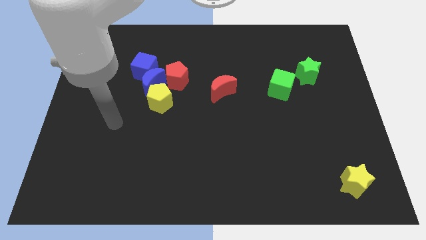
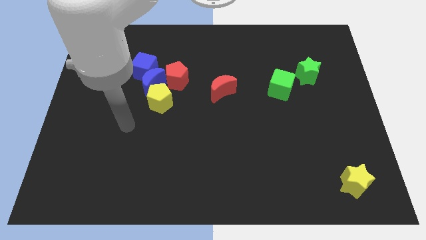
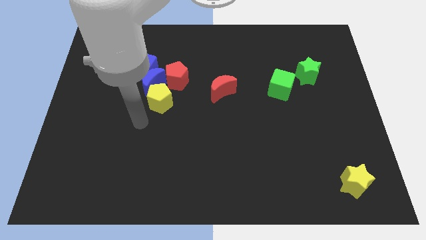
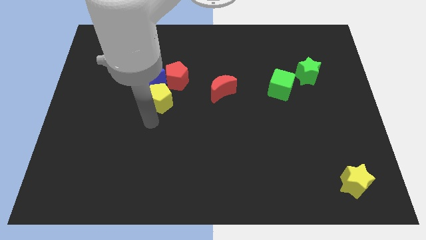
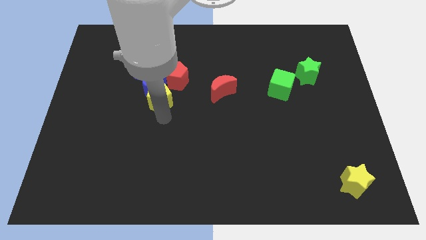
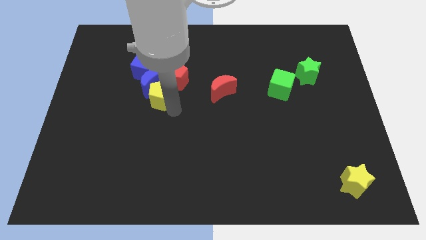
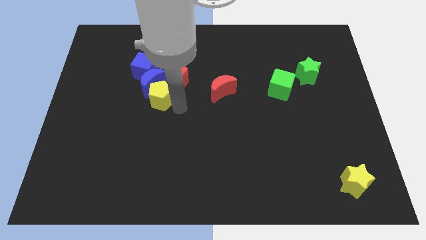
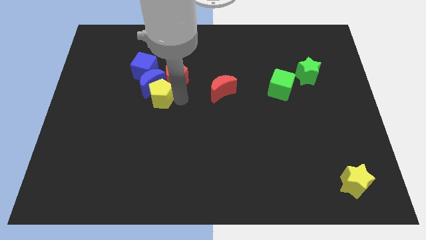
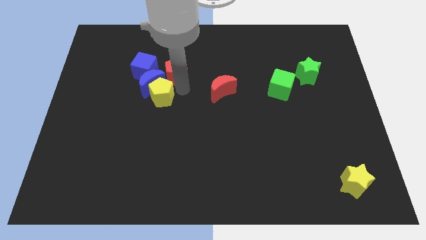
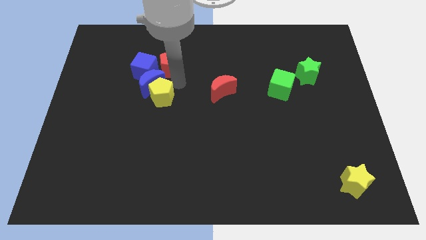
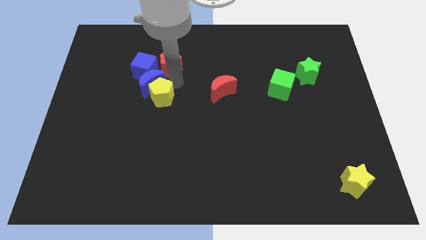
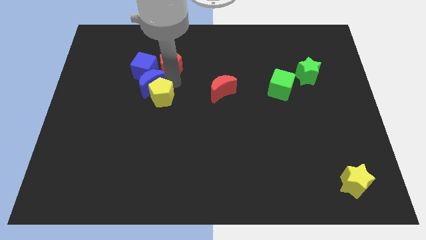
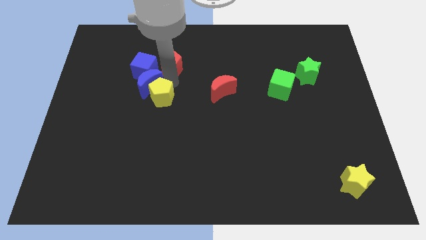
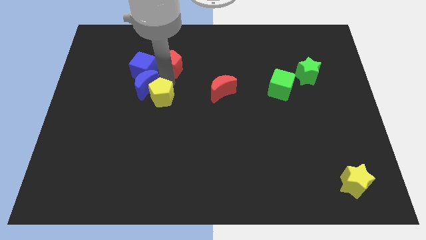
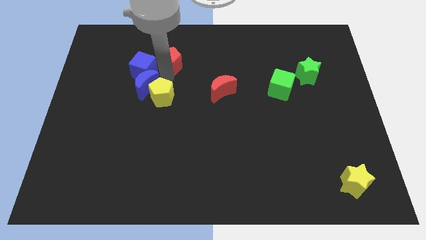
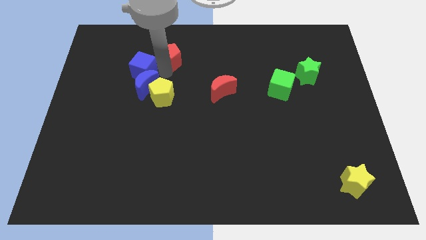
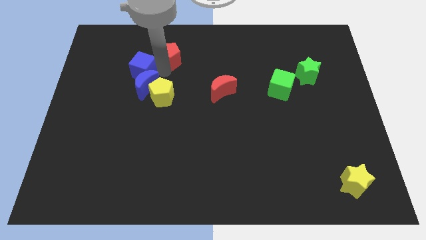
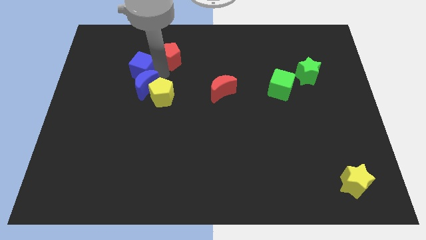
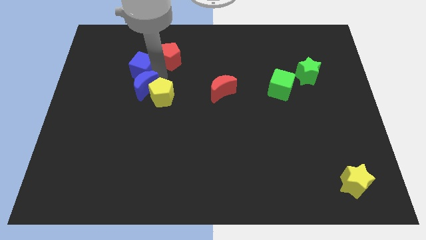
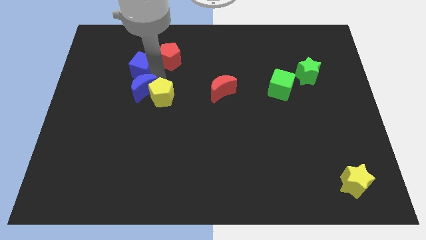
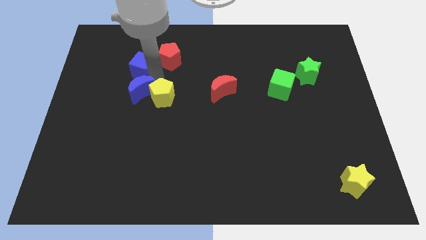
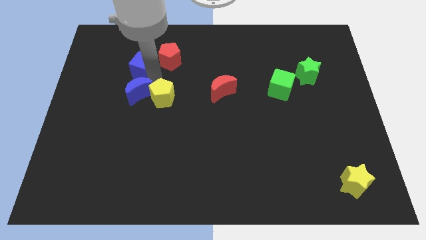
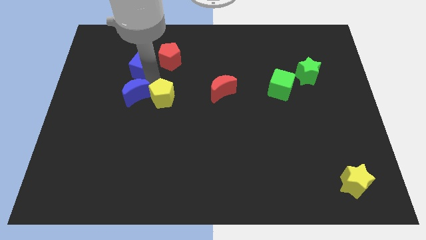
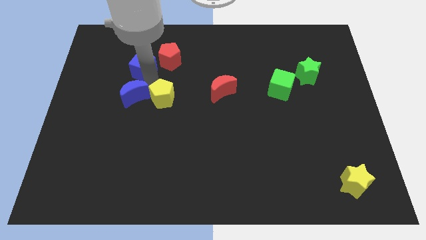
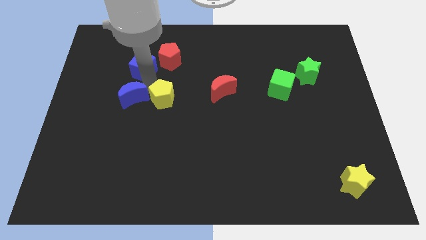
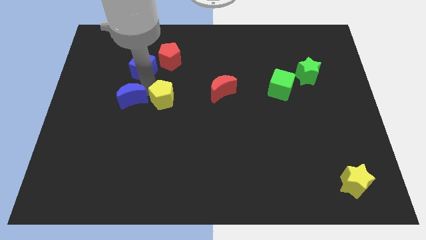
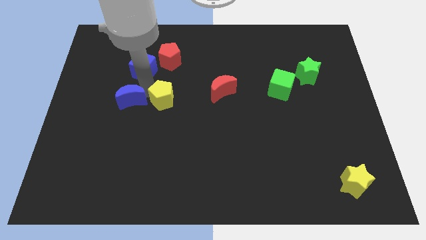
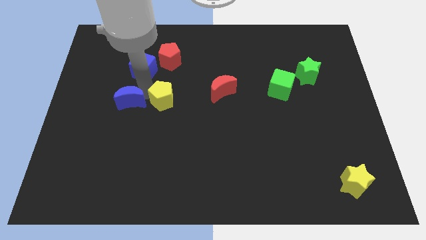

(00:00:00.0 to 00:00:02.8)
separate the blue moon from the blue cube, yellow pentagon, and red pentagon

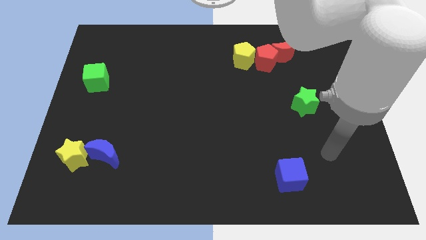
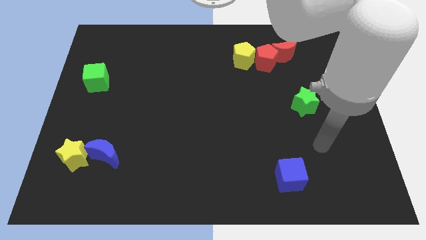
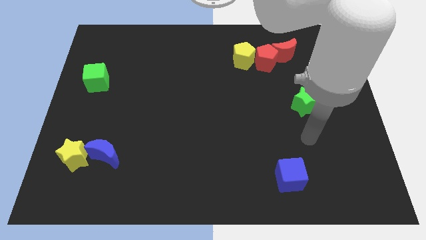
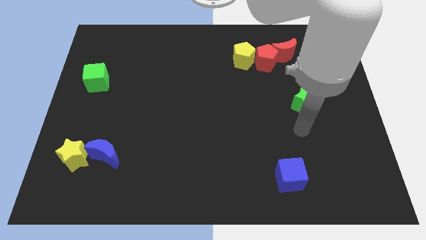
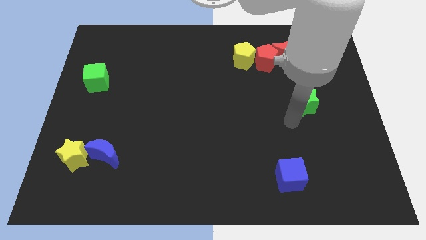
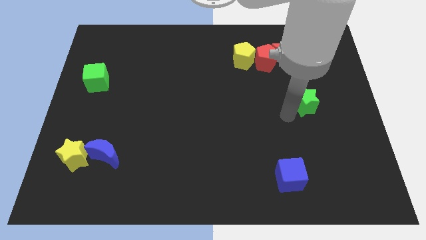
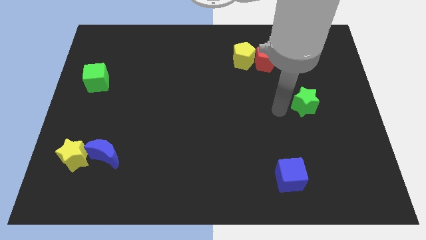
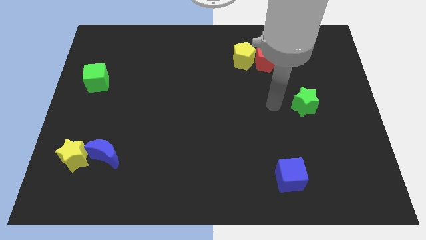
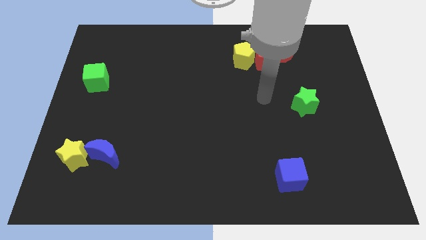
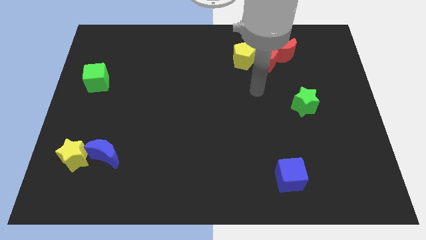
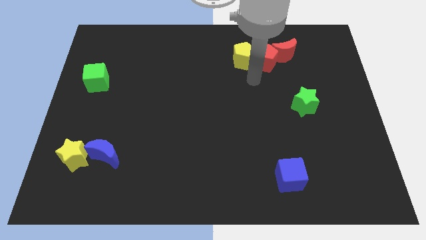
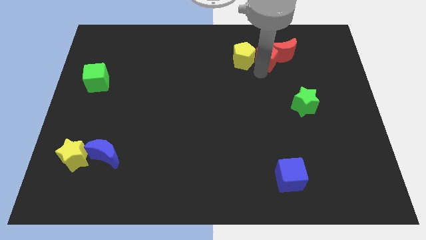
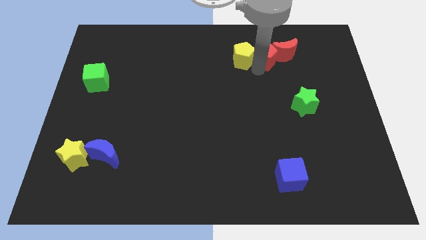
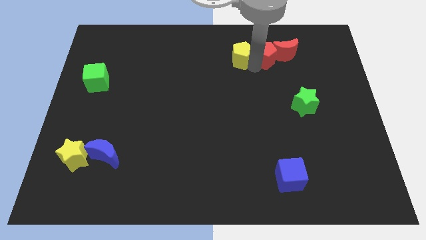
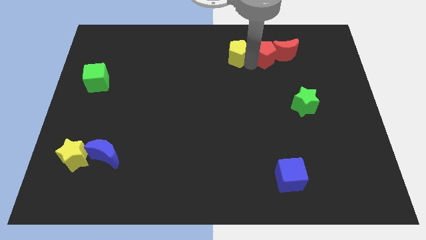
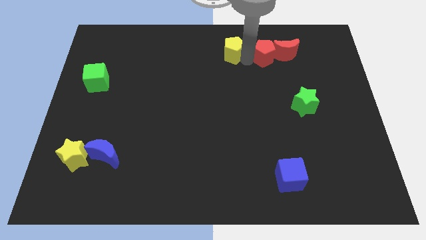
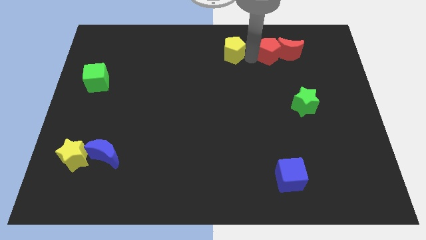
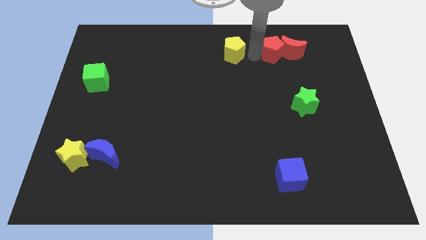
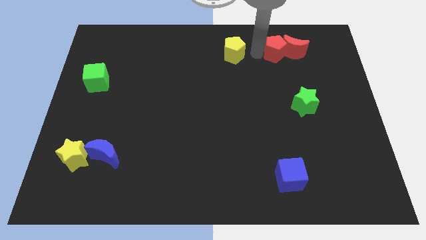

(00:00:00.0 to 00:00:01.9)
pull the yellow pentagon apart from the red pentagon

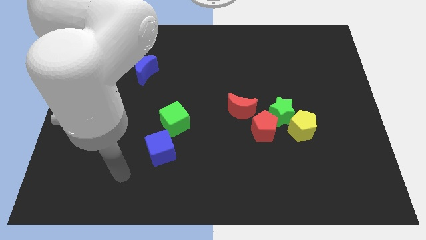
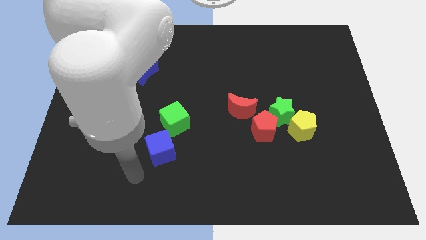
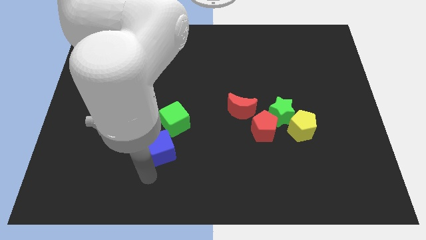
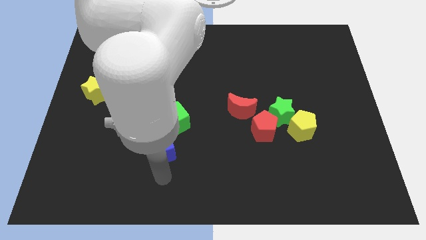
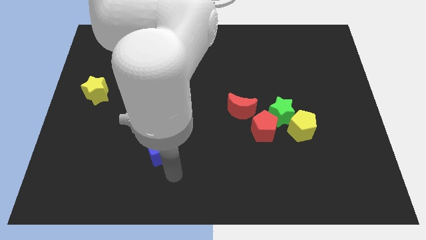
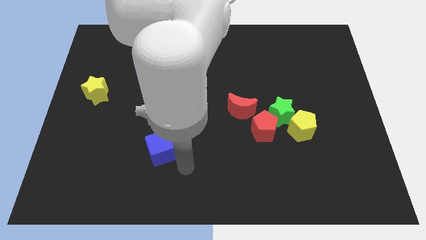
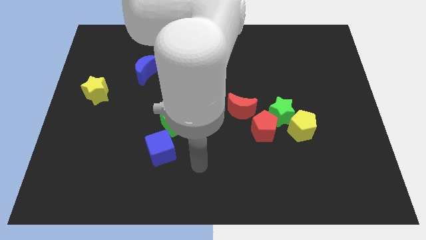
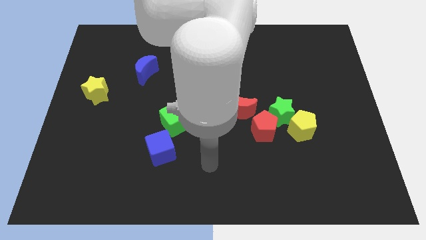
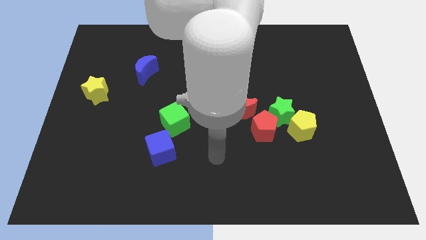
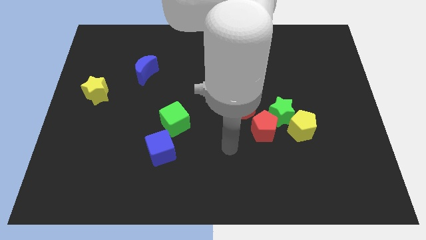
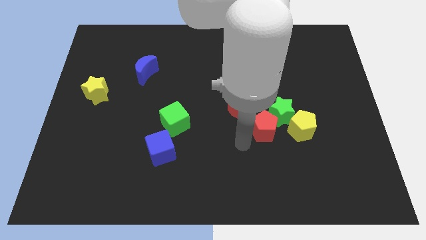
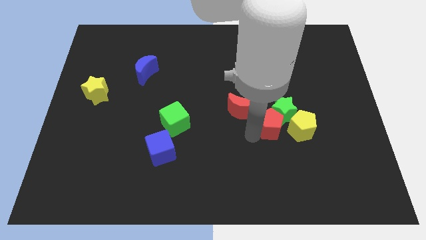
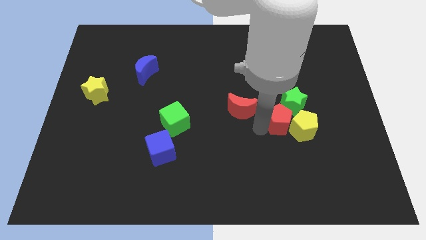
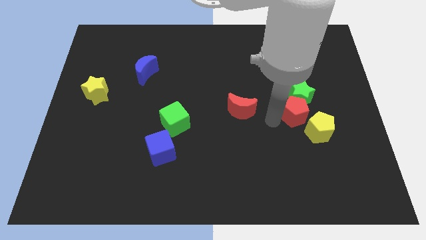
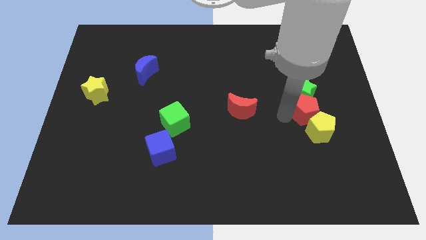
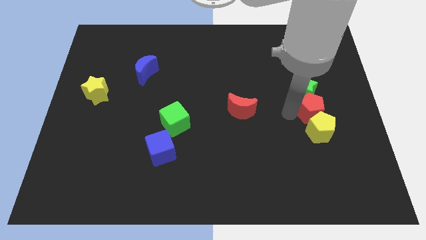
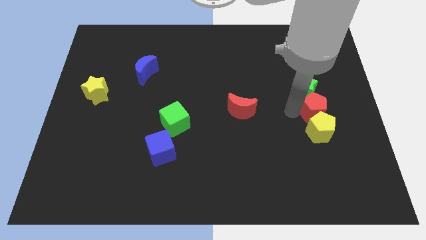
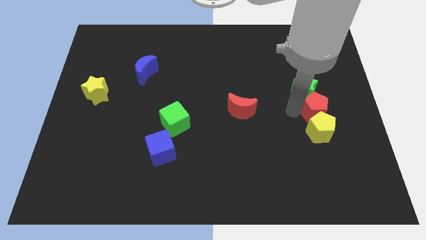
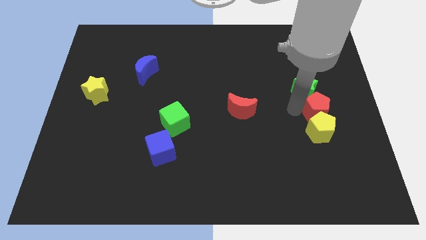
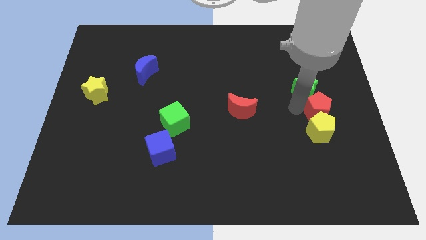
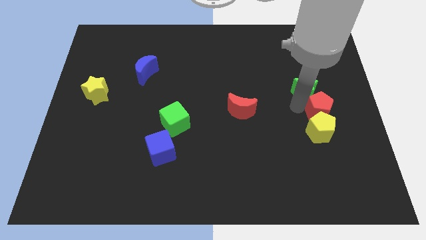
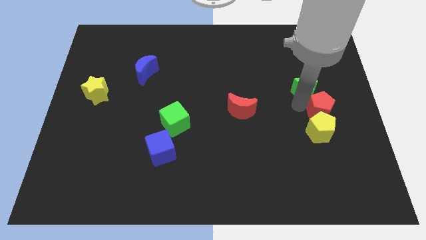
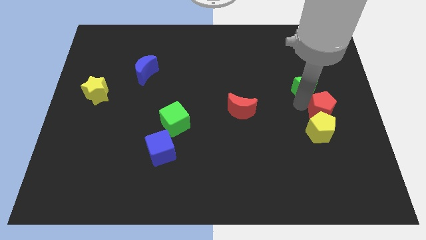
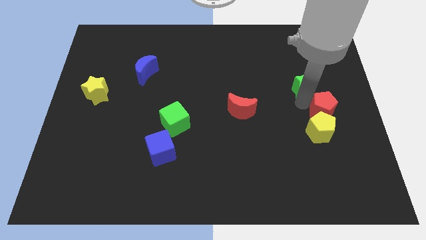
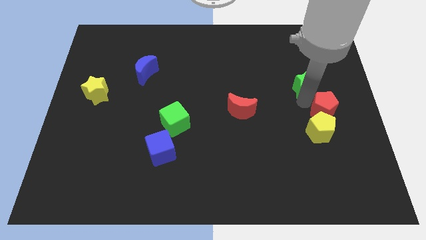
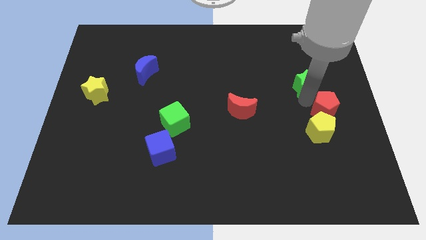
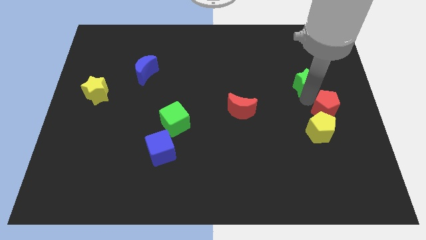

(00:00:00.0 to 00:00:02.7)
pull the green star apart from the yellow pentagon, red pentagon, and red moon

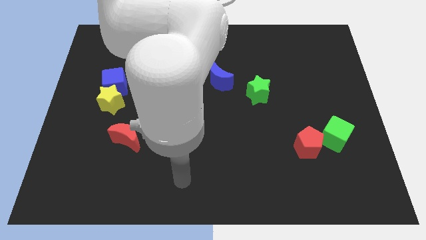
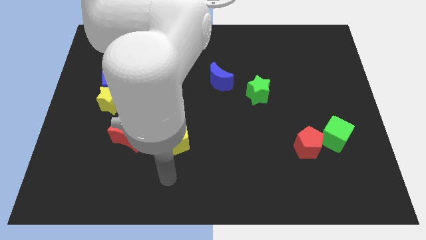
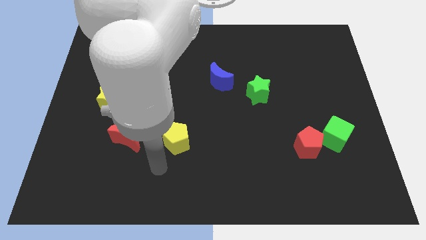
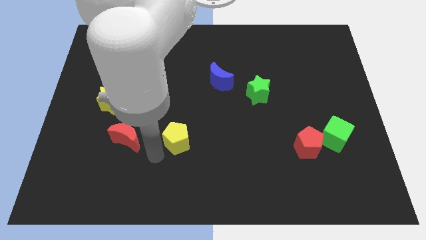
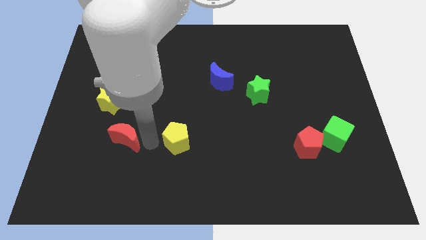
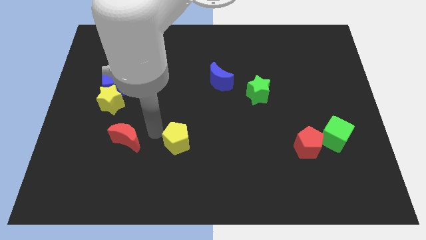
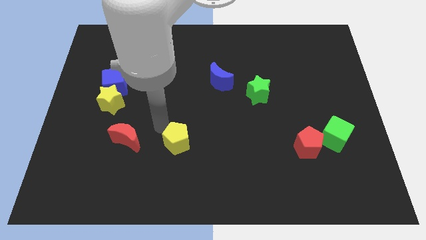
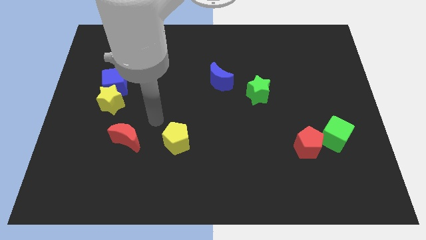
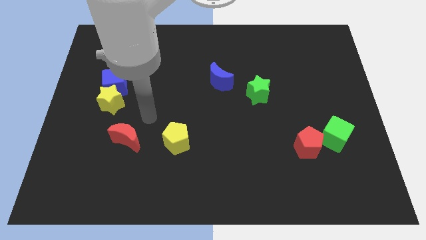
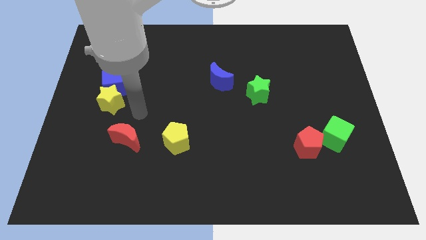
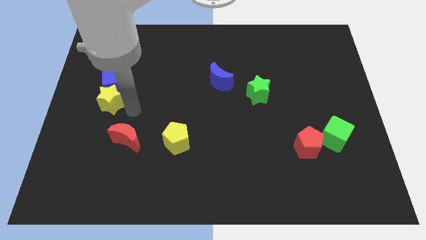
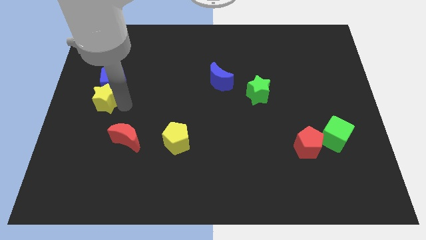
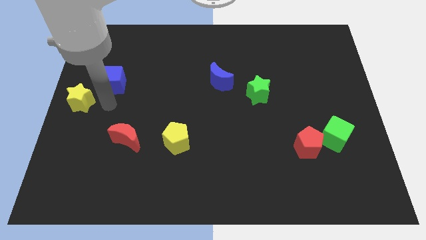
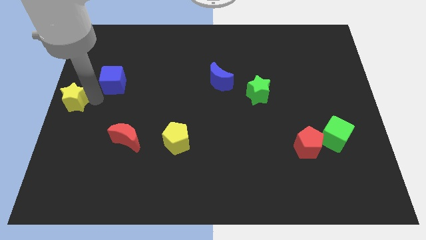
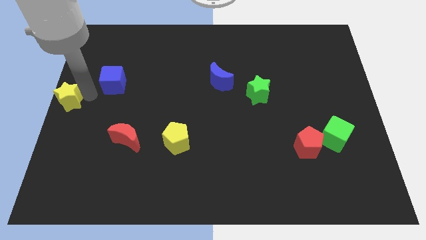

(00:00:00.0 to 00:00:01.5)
pull the blue cube apart from the yellow star

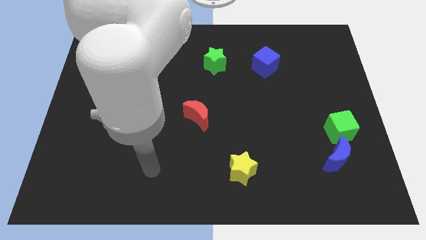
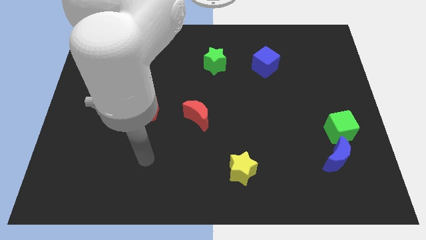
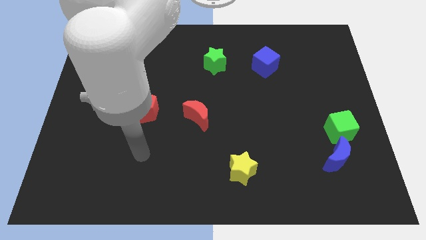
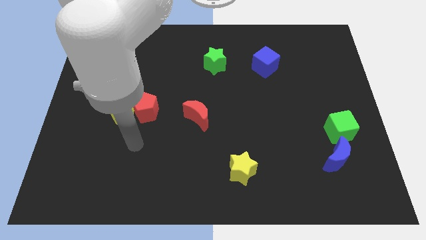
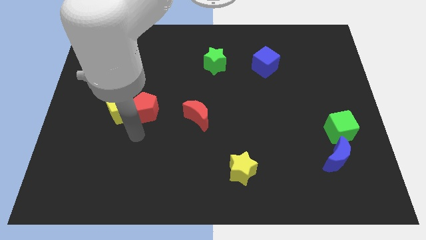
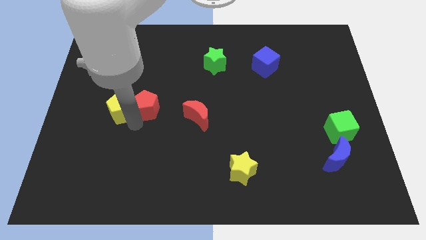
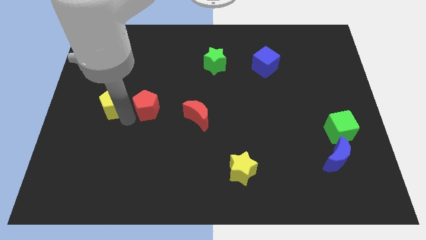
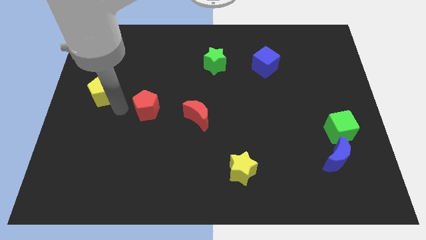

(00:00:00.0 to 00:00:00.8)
separate the red pentagon from the yellow pentagon
